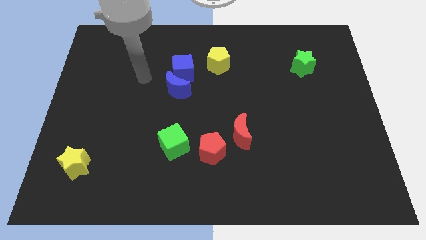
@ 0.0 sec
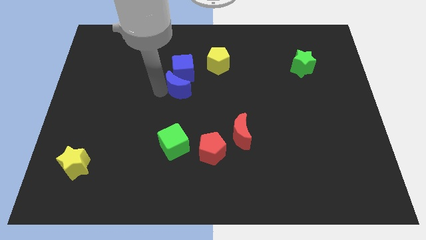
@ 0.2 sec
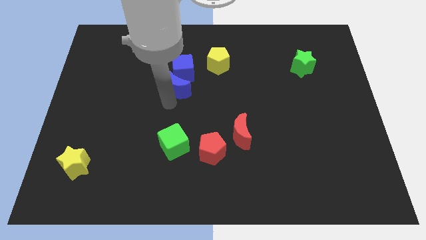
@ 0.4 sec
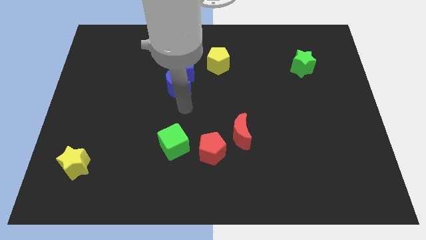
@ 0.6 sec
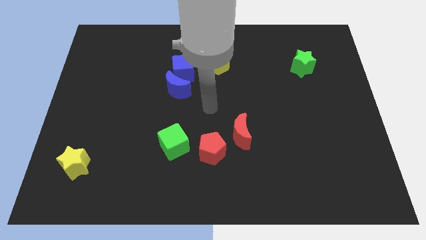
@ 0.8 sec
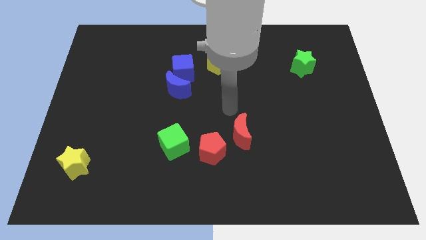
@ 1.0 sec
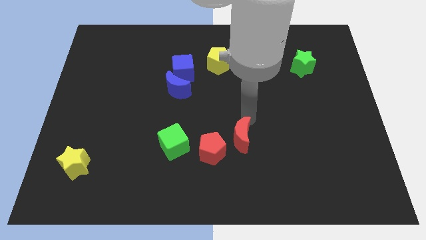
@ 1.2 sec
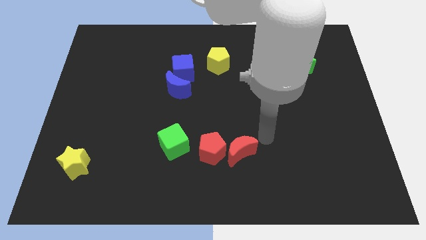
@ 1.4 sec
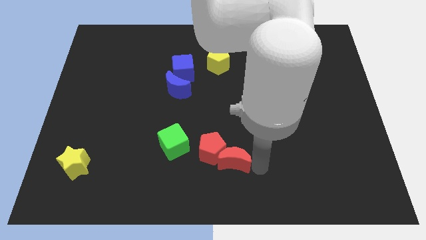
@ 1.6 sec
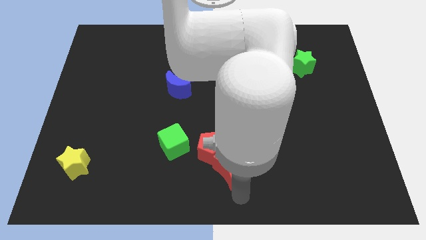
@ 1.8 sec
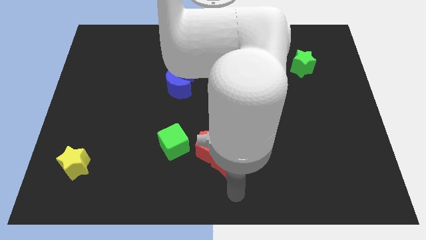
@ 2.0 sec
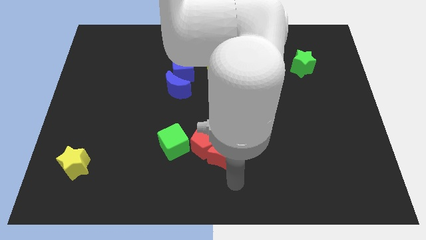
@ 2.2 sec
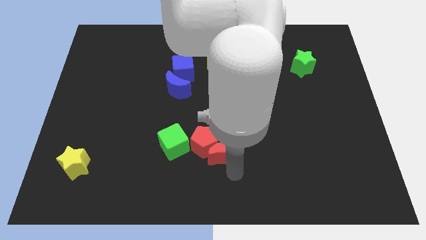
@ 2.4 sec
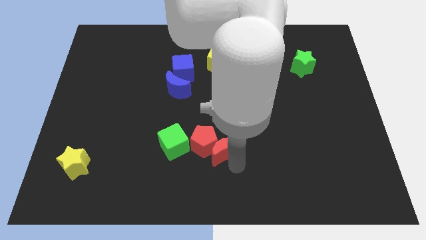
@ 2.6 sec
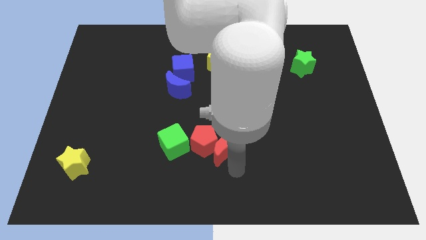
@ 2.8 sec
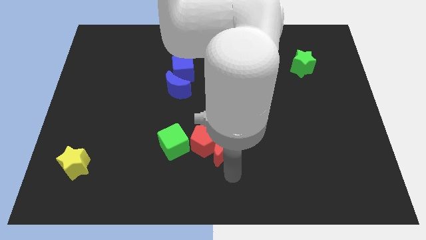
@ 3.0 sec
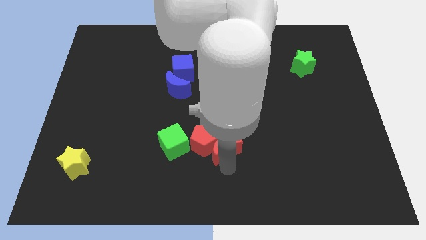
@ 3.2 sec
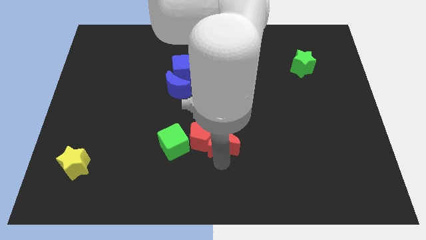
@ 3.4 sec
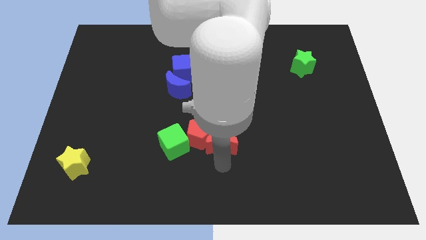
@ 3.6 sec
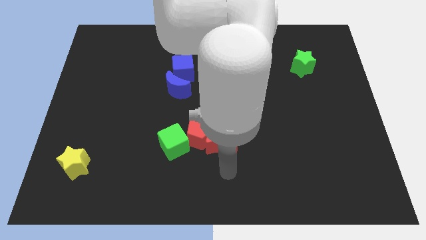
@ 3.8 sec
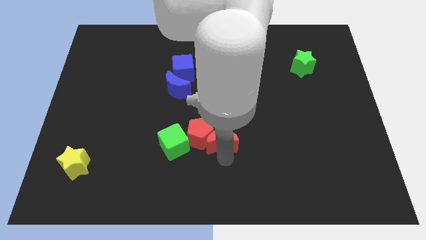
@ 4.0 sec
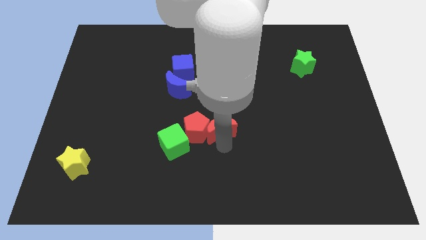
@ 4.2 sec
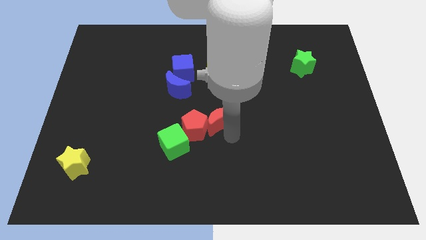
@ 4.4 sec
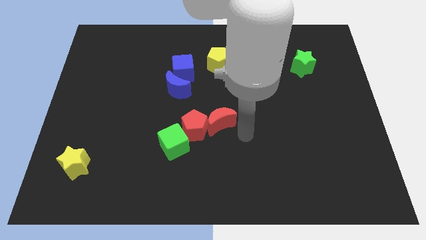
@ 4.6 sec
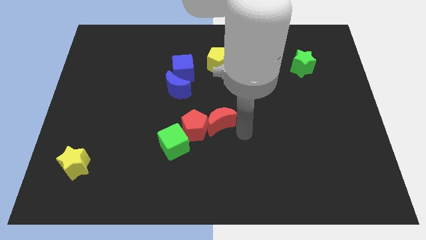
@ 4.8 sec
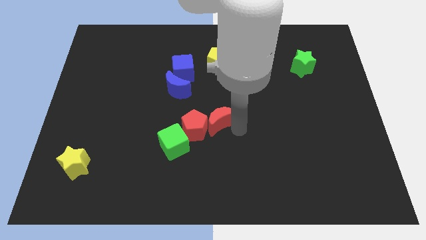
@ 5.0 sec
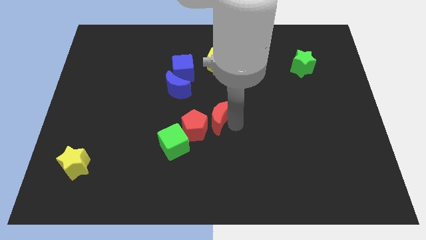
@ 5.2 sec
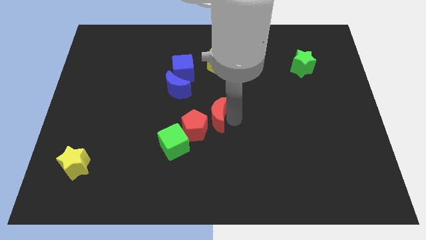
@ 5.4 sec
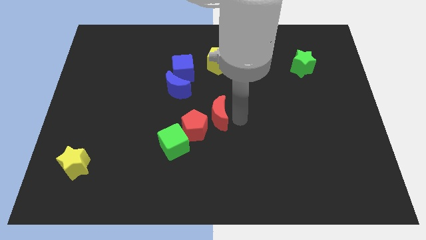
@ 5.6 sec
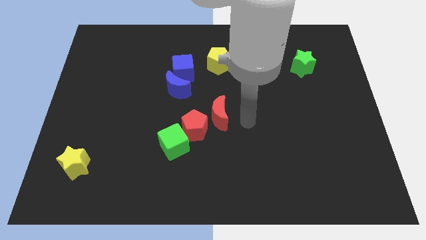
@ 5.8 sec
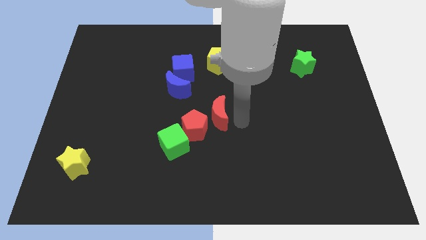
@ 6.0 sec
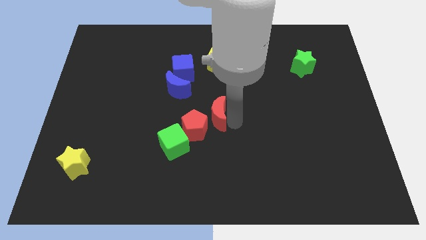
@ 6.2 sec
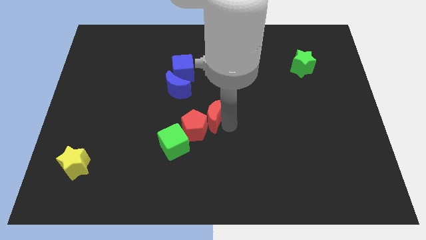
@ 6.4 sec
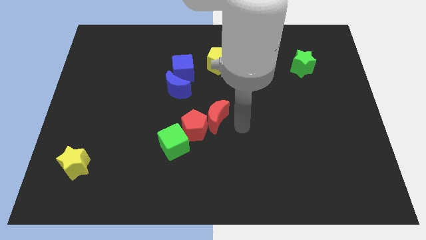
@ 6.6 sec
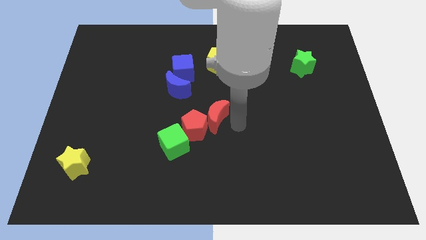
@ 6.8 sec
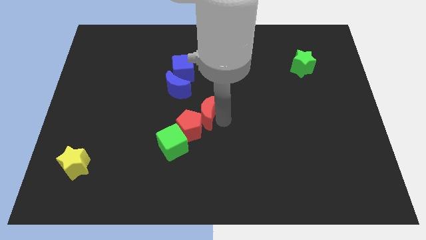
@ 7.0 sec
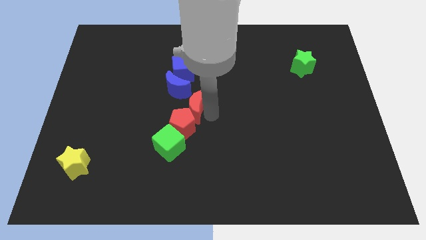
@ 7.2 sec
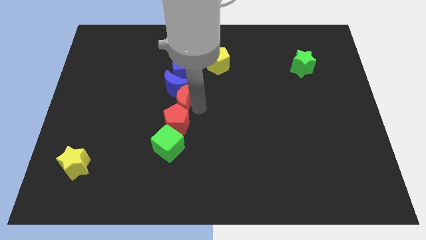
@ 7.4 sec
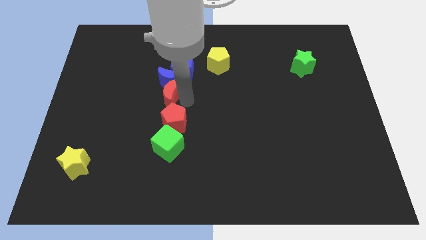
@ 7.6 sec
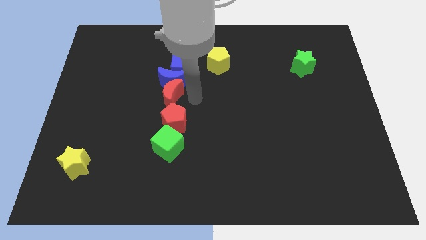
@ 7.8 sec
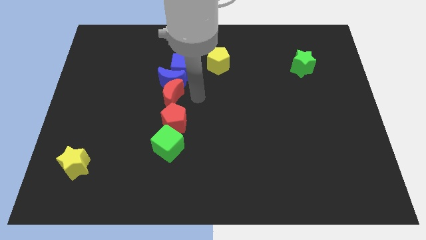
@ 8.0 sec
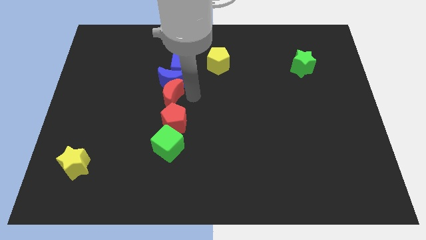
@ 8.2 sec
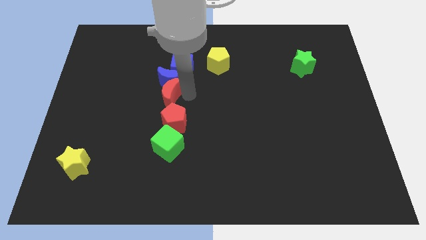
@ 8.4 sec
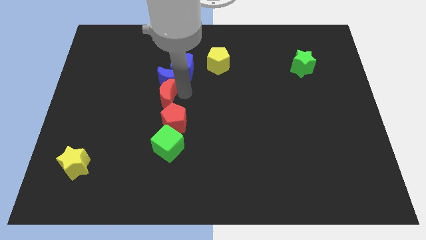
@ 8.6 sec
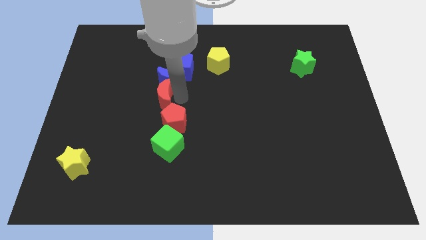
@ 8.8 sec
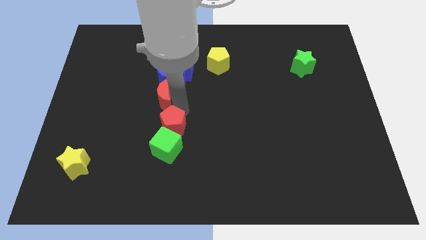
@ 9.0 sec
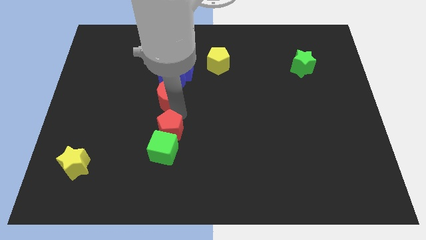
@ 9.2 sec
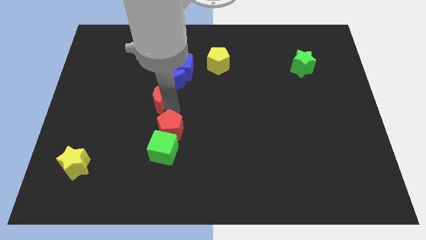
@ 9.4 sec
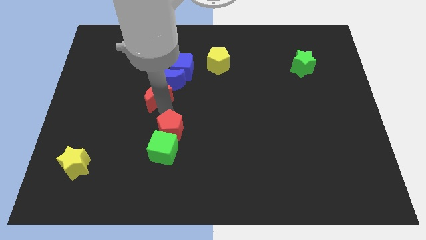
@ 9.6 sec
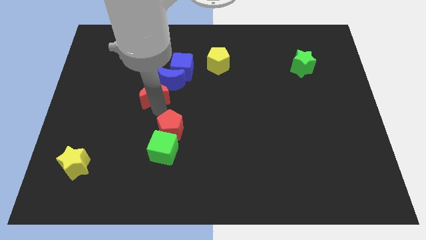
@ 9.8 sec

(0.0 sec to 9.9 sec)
push the red moon upwards and to the left

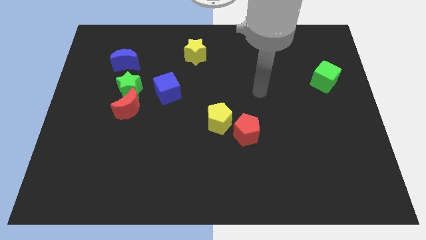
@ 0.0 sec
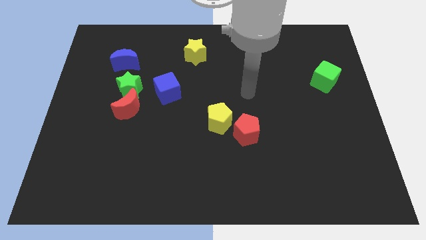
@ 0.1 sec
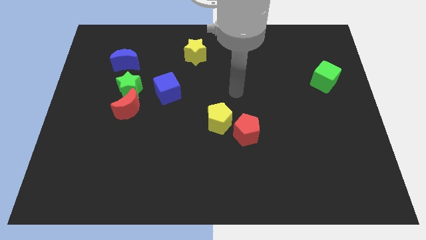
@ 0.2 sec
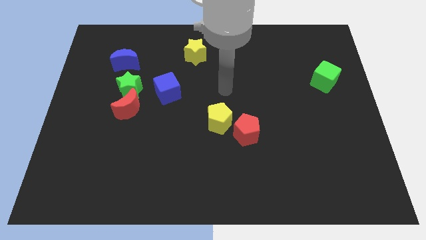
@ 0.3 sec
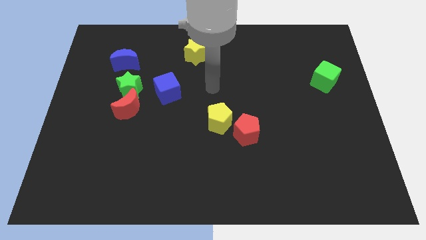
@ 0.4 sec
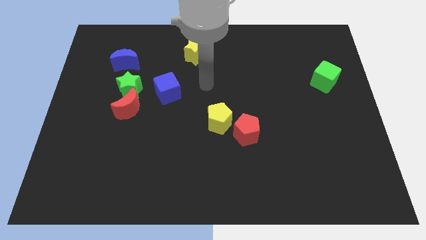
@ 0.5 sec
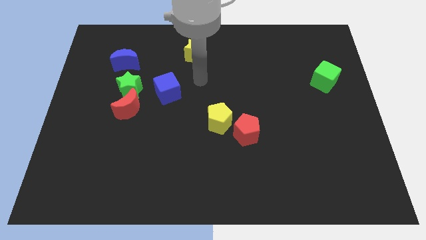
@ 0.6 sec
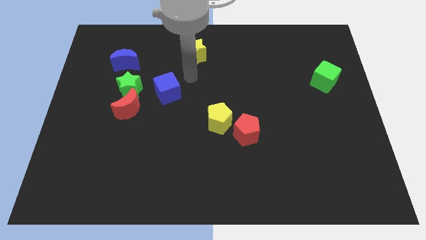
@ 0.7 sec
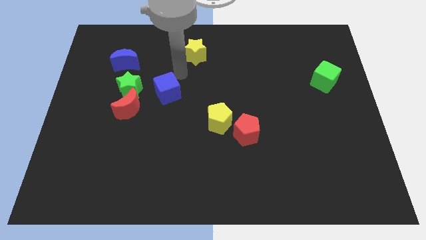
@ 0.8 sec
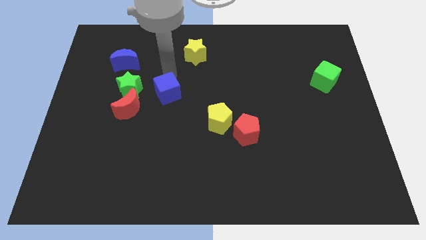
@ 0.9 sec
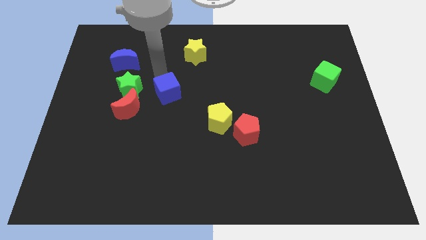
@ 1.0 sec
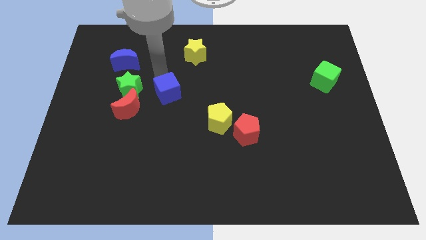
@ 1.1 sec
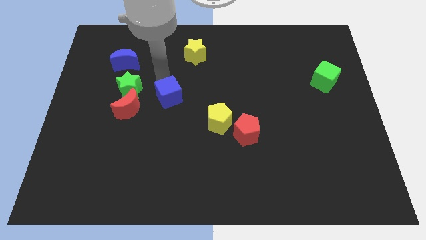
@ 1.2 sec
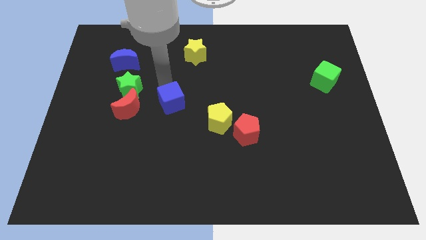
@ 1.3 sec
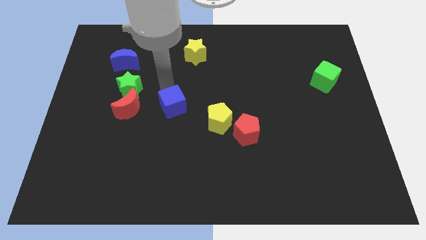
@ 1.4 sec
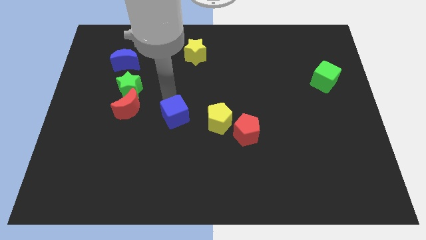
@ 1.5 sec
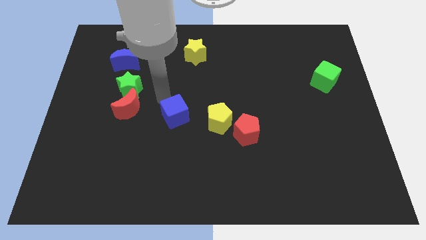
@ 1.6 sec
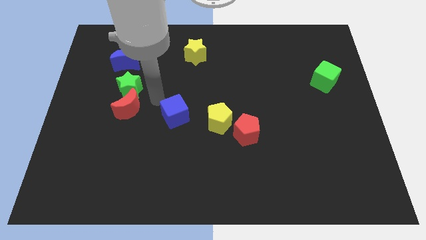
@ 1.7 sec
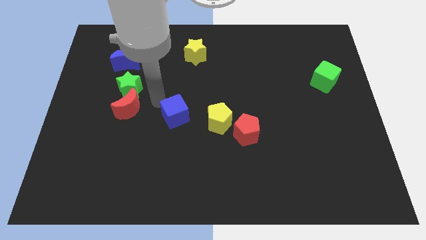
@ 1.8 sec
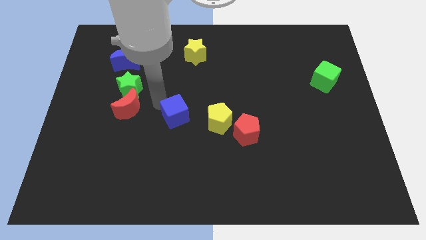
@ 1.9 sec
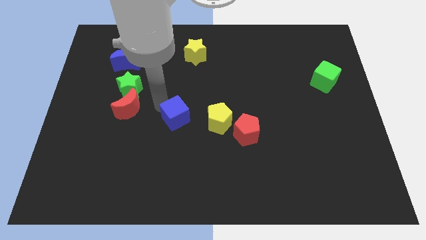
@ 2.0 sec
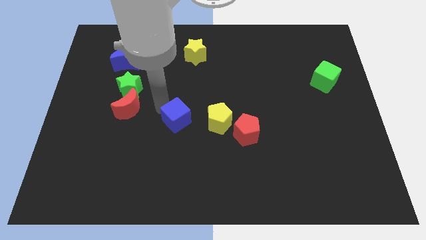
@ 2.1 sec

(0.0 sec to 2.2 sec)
slightly move the blue cube down and to the right diagonally

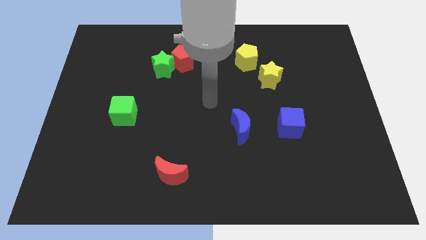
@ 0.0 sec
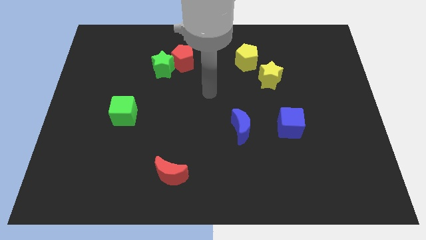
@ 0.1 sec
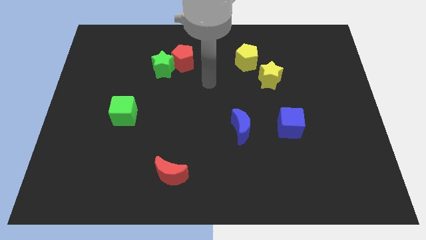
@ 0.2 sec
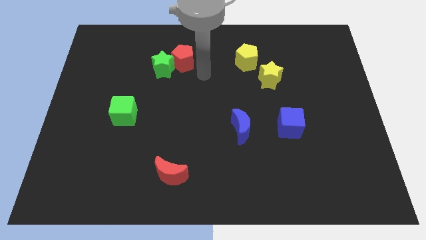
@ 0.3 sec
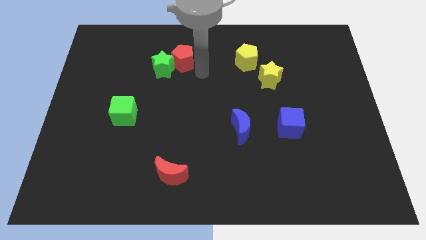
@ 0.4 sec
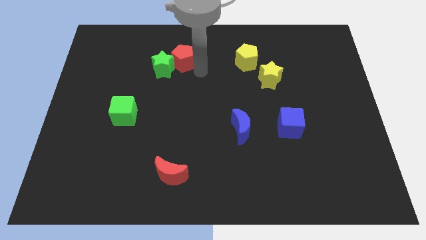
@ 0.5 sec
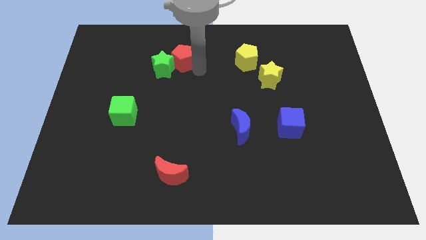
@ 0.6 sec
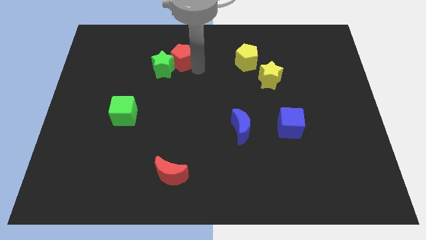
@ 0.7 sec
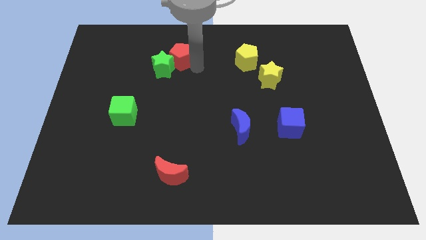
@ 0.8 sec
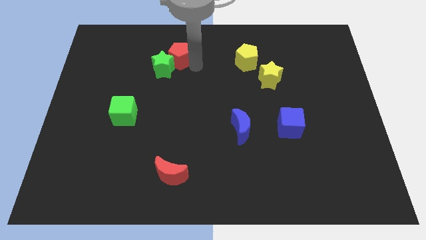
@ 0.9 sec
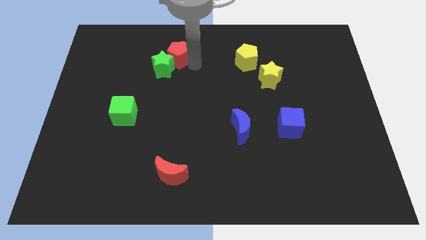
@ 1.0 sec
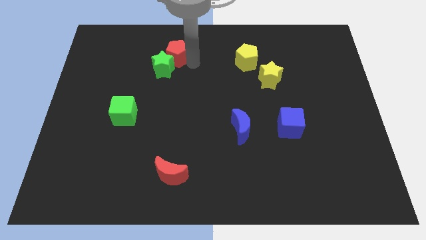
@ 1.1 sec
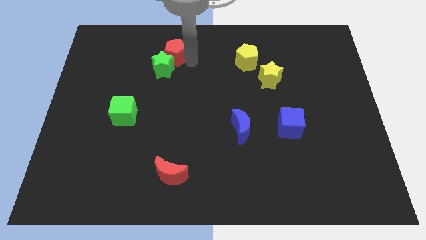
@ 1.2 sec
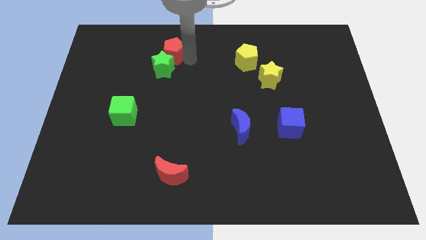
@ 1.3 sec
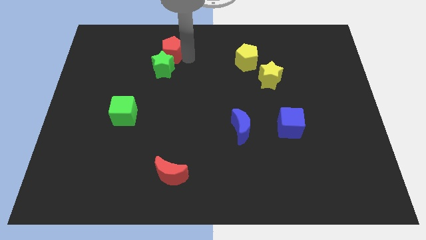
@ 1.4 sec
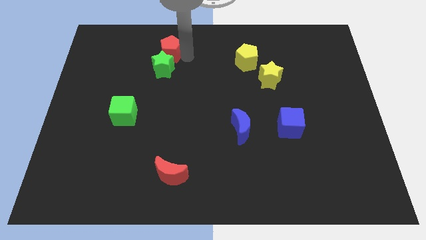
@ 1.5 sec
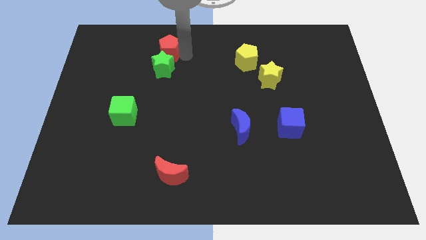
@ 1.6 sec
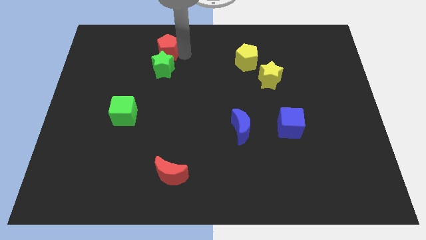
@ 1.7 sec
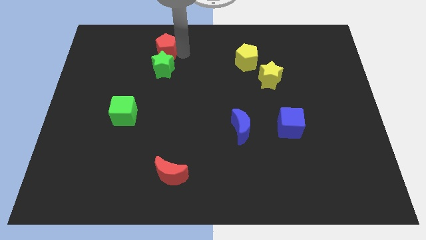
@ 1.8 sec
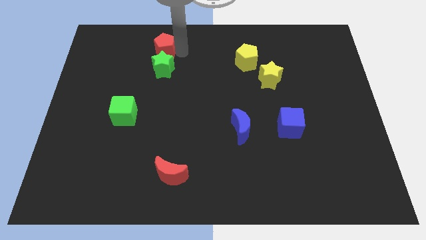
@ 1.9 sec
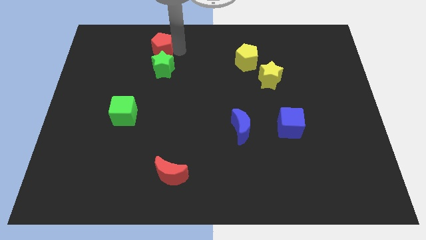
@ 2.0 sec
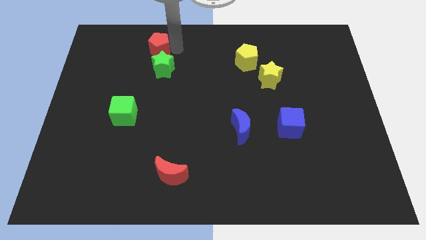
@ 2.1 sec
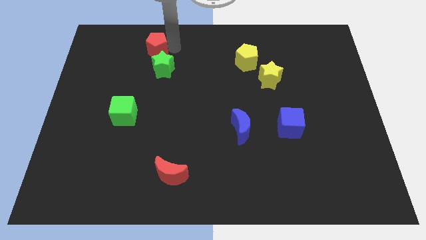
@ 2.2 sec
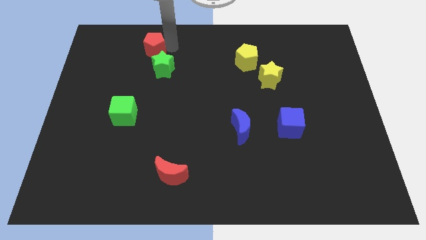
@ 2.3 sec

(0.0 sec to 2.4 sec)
slightly push the red pentagon to the left
